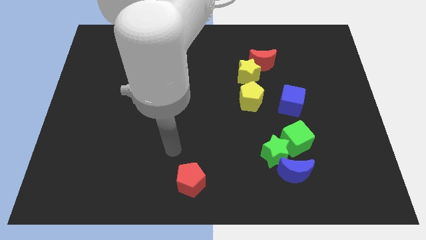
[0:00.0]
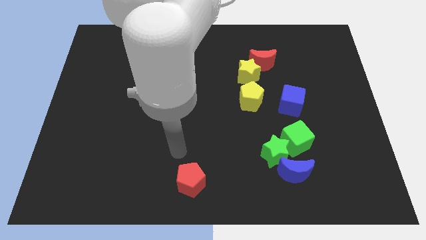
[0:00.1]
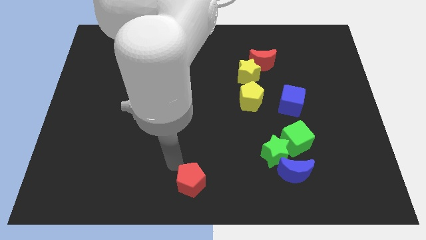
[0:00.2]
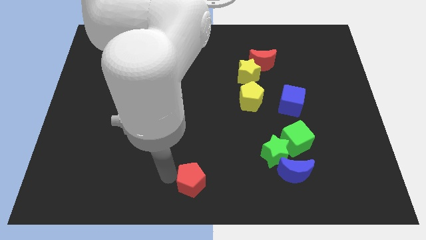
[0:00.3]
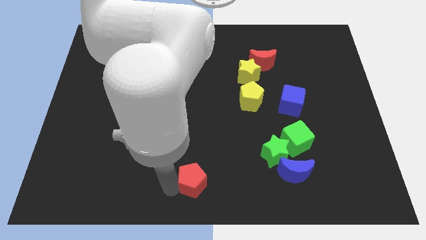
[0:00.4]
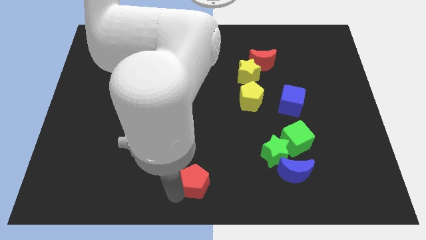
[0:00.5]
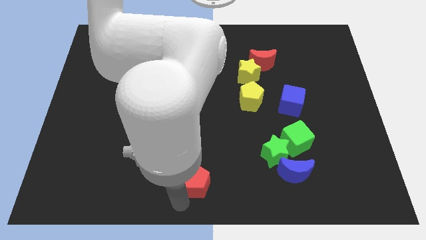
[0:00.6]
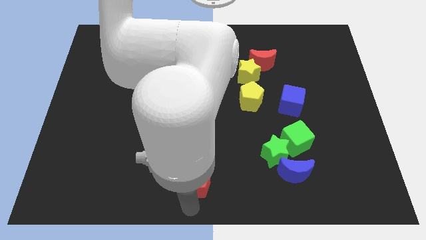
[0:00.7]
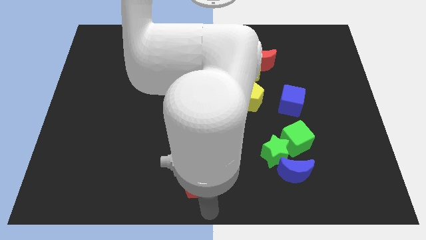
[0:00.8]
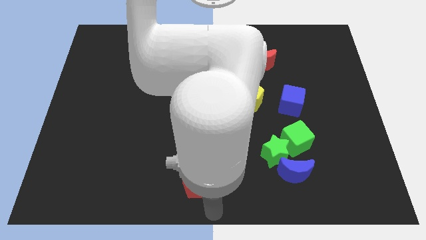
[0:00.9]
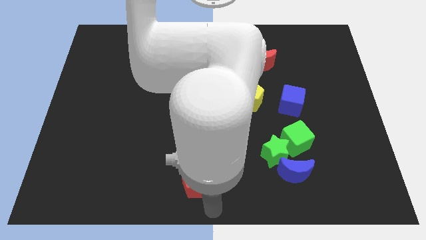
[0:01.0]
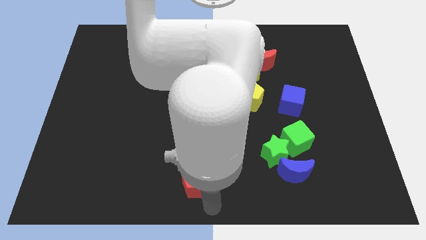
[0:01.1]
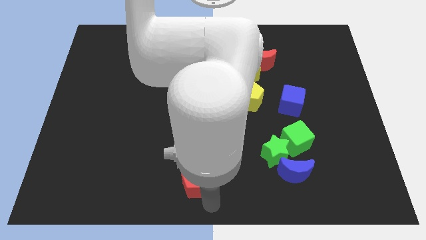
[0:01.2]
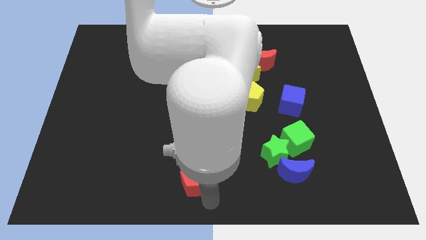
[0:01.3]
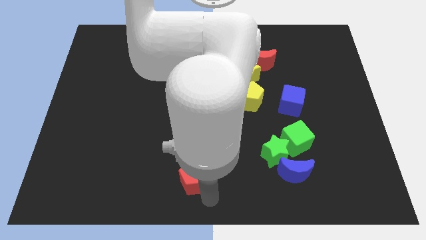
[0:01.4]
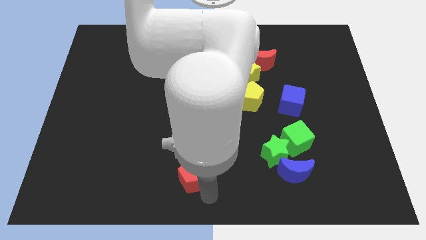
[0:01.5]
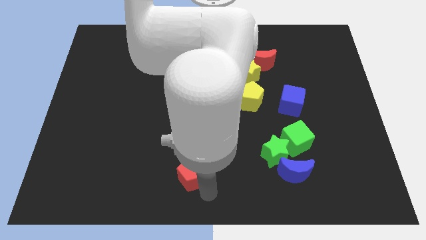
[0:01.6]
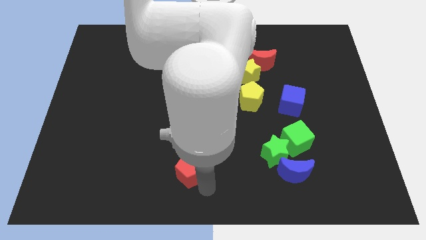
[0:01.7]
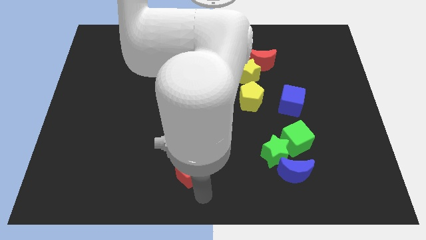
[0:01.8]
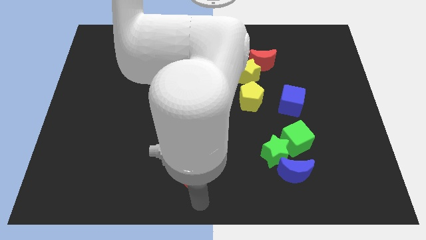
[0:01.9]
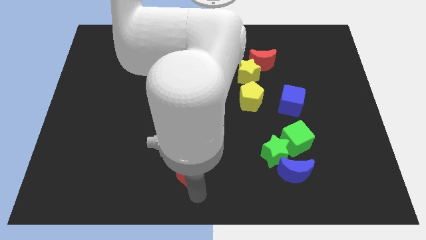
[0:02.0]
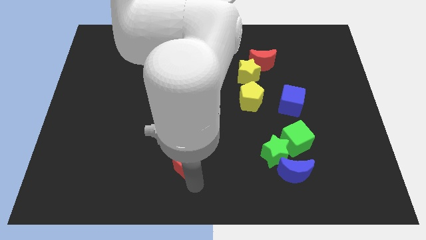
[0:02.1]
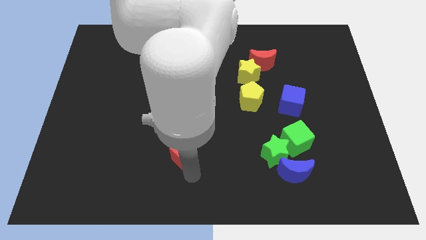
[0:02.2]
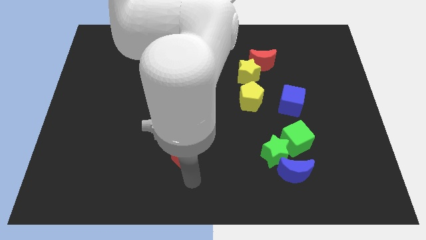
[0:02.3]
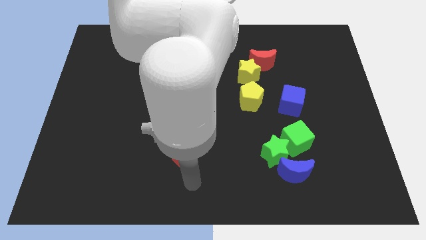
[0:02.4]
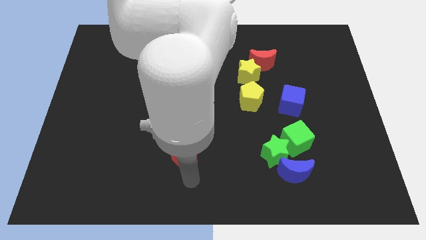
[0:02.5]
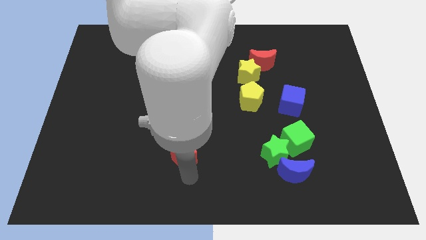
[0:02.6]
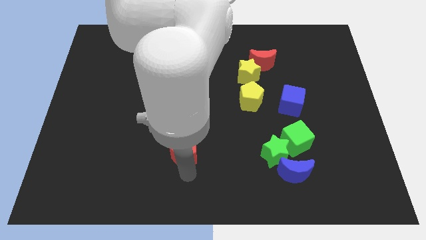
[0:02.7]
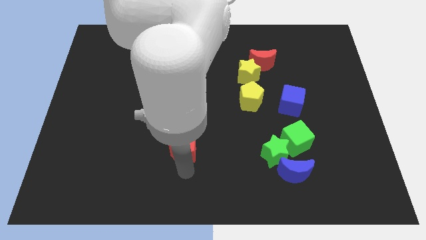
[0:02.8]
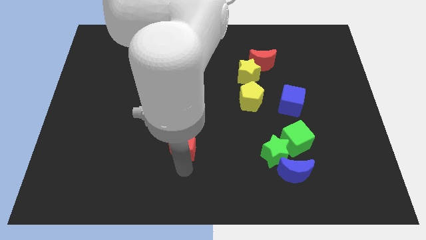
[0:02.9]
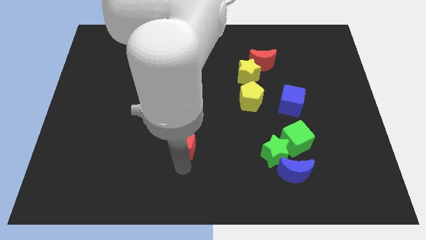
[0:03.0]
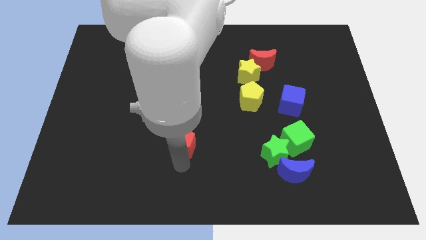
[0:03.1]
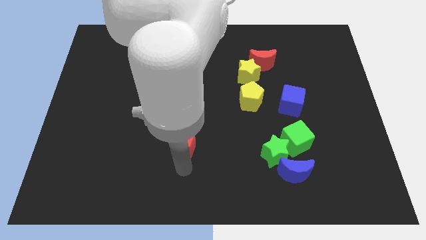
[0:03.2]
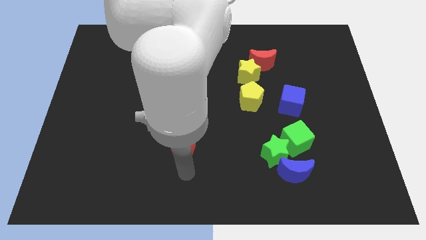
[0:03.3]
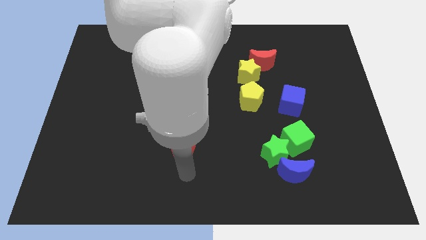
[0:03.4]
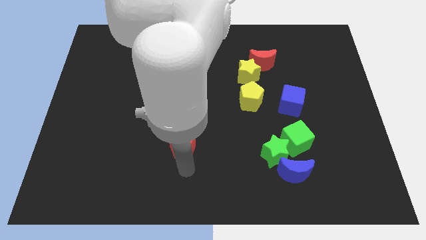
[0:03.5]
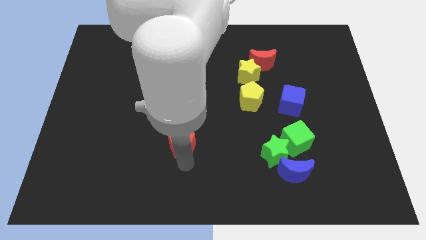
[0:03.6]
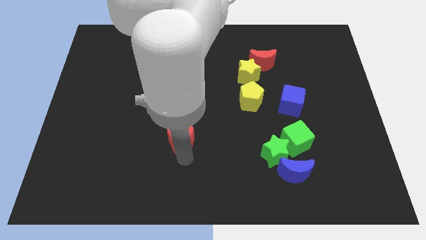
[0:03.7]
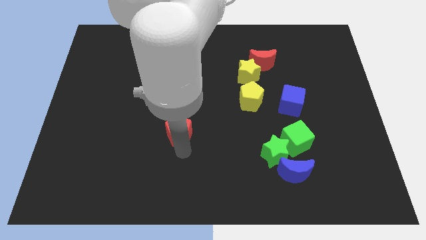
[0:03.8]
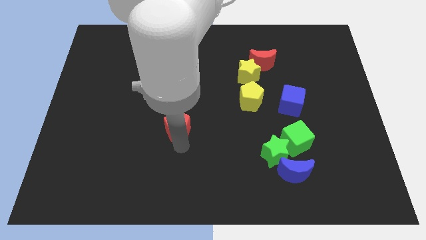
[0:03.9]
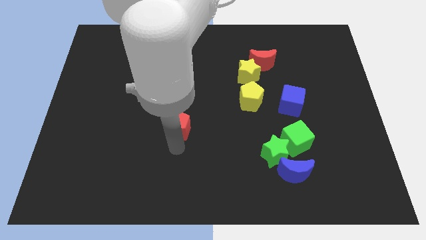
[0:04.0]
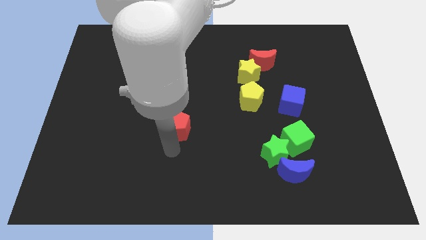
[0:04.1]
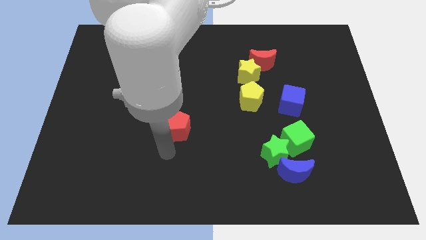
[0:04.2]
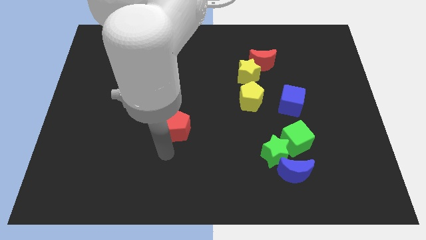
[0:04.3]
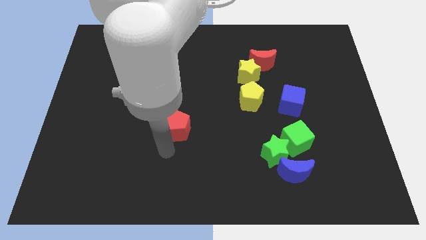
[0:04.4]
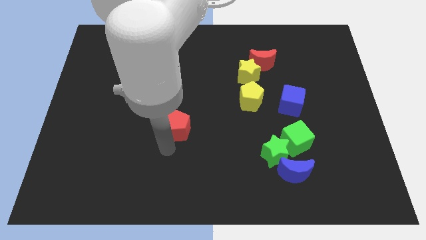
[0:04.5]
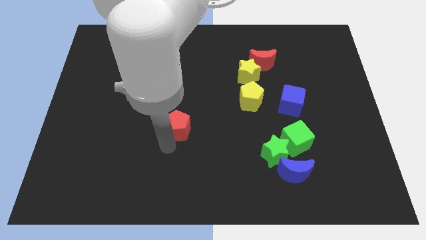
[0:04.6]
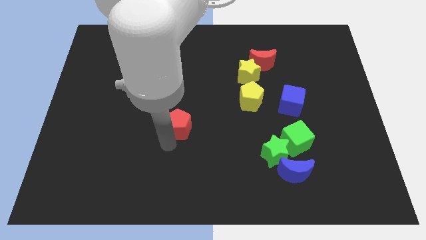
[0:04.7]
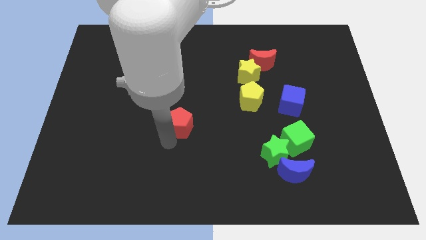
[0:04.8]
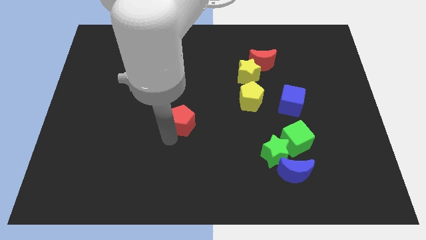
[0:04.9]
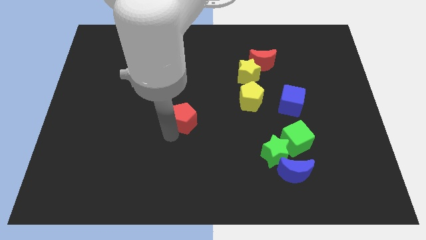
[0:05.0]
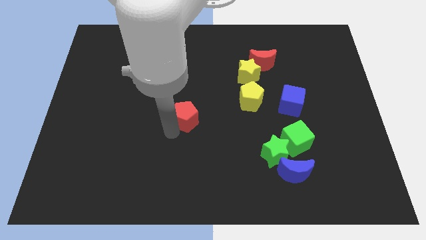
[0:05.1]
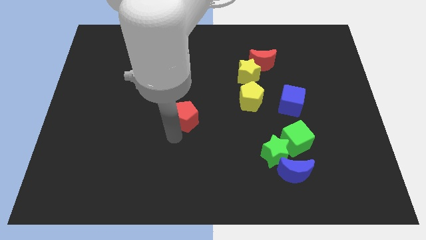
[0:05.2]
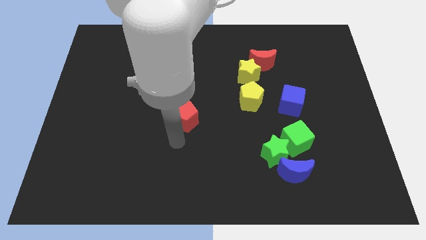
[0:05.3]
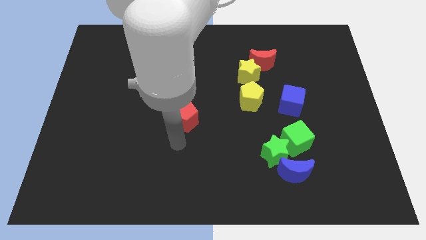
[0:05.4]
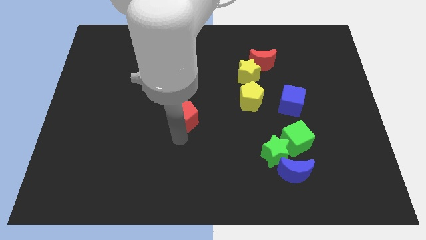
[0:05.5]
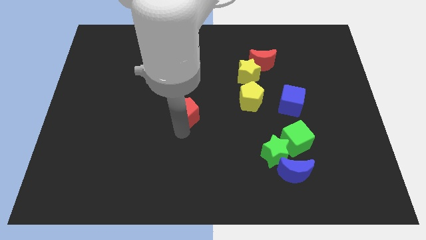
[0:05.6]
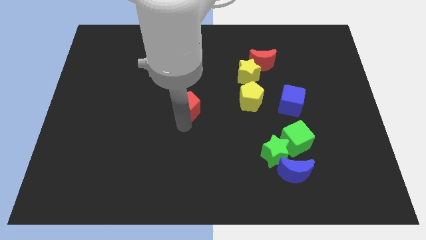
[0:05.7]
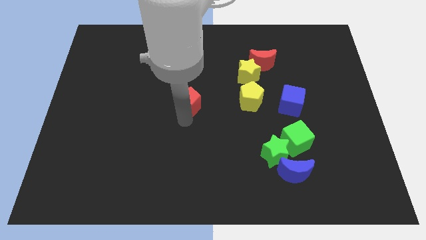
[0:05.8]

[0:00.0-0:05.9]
slide the red pentagon upwards

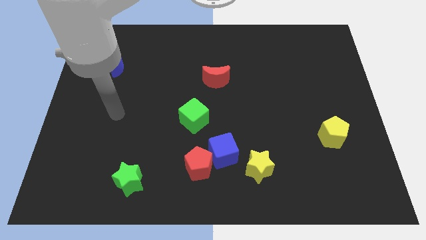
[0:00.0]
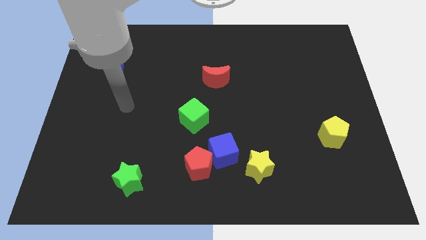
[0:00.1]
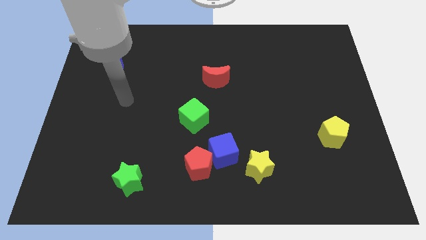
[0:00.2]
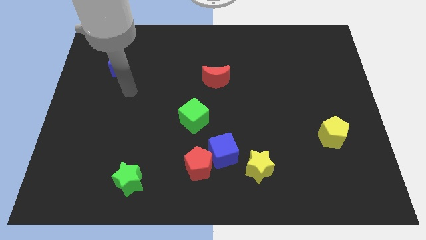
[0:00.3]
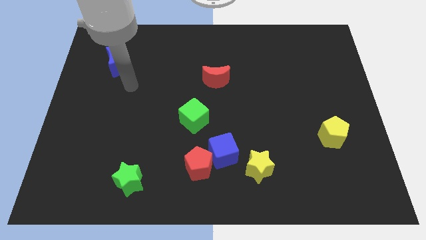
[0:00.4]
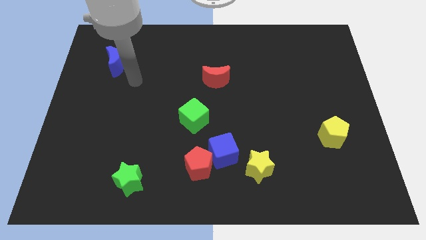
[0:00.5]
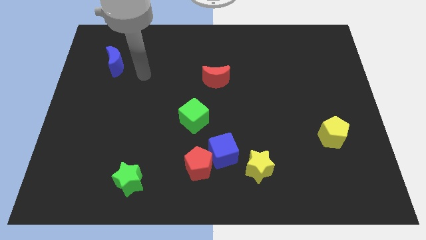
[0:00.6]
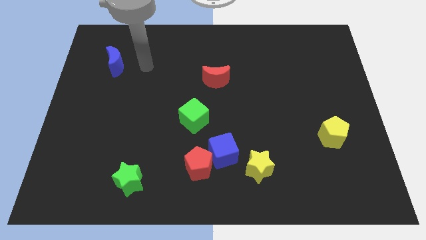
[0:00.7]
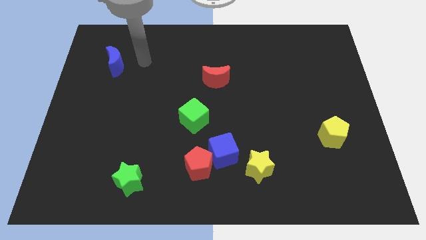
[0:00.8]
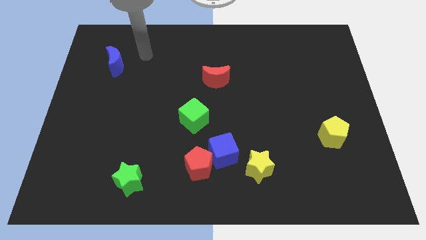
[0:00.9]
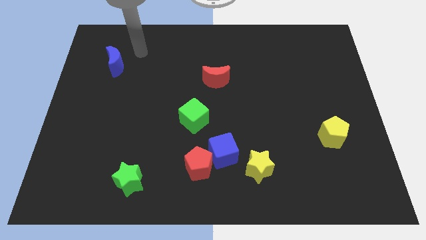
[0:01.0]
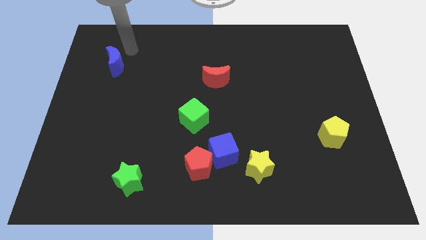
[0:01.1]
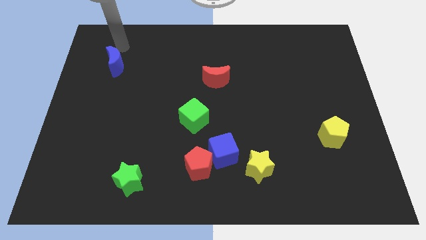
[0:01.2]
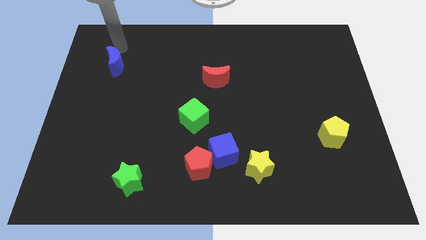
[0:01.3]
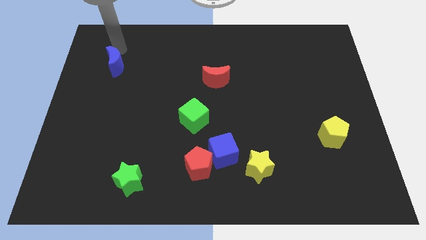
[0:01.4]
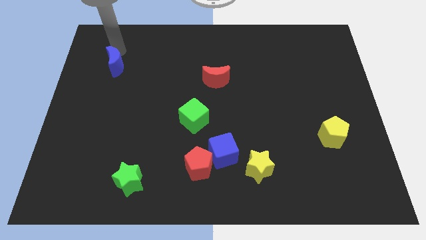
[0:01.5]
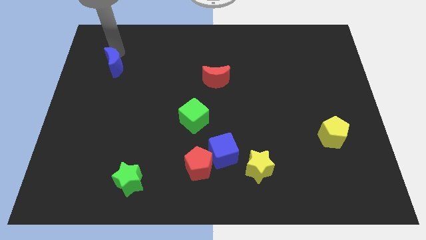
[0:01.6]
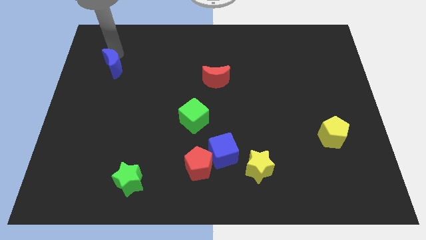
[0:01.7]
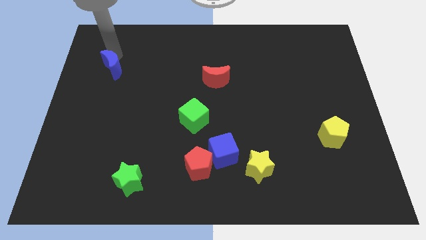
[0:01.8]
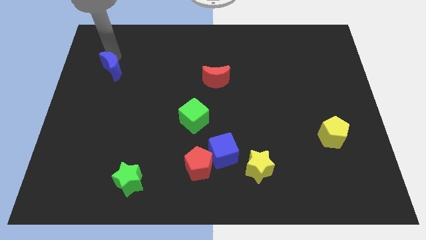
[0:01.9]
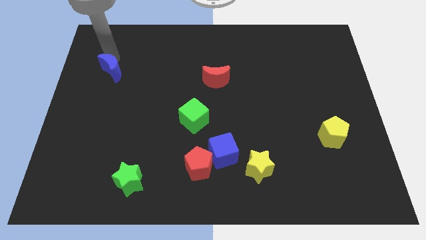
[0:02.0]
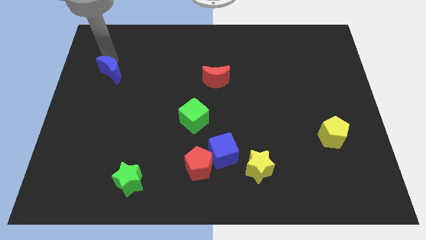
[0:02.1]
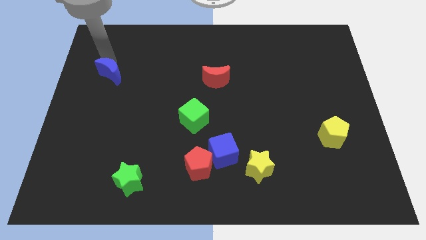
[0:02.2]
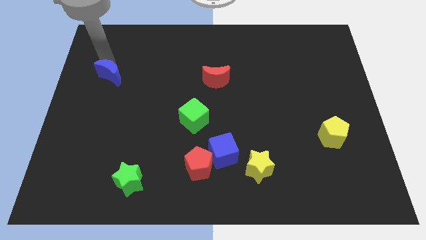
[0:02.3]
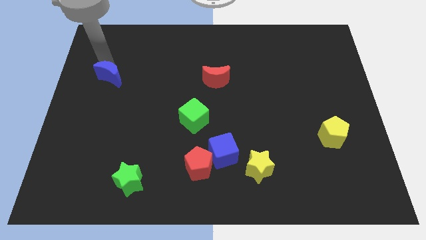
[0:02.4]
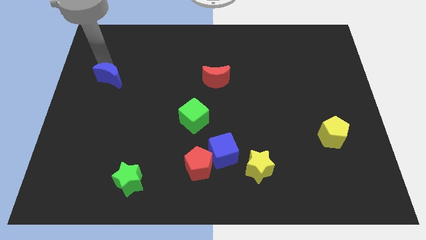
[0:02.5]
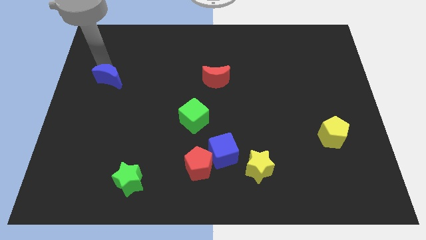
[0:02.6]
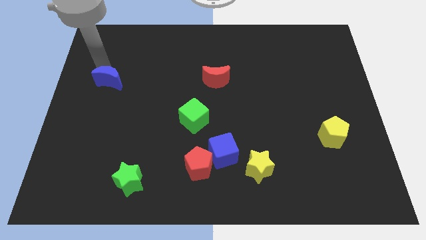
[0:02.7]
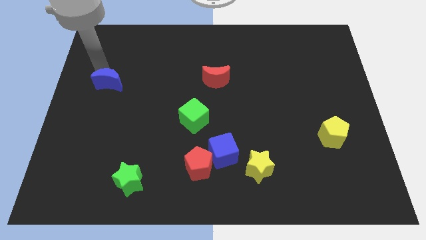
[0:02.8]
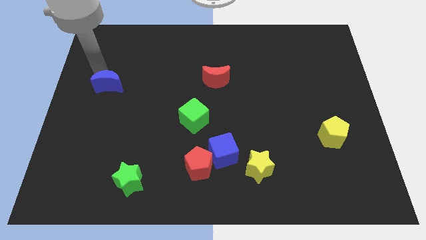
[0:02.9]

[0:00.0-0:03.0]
slightly slide the blue moon down
